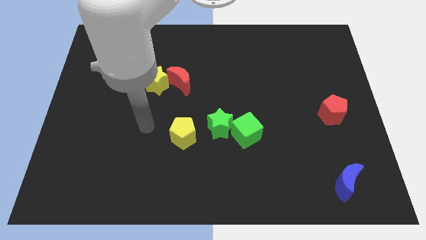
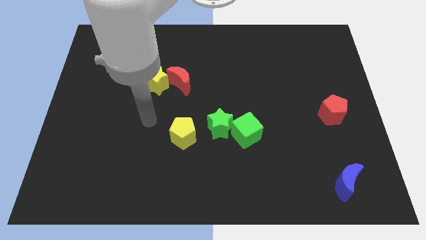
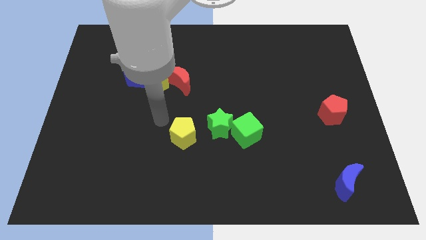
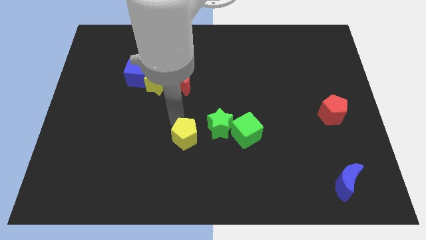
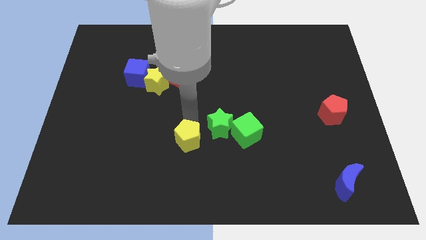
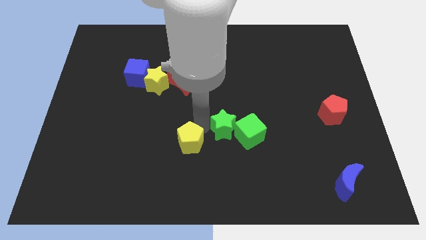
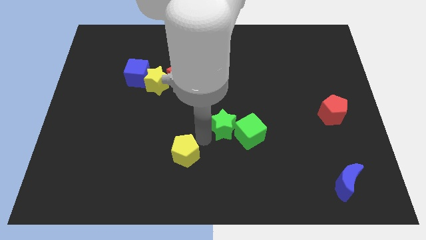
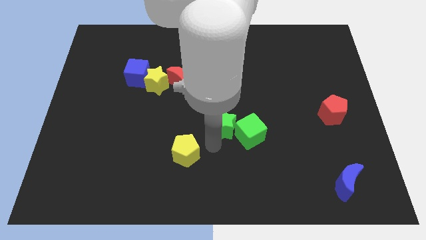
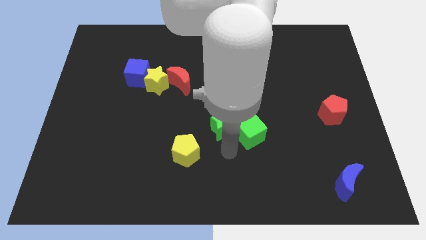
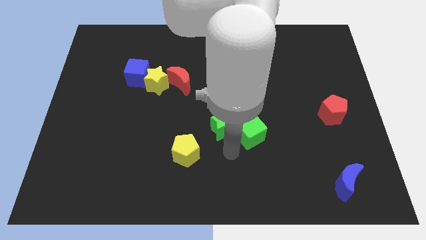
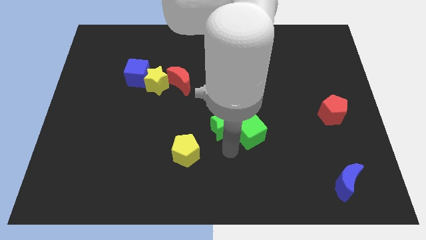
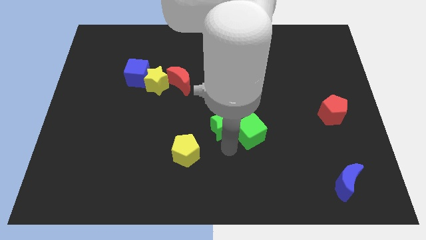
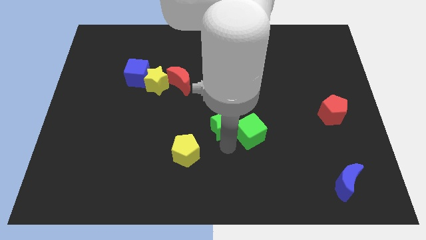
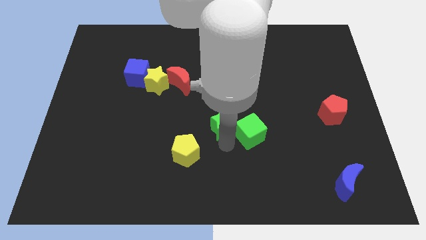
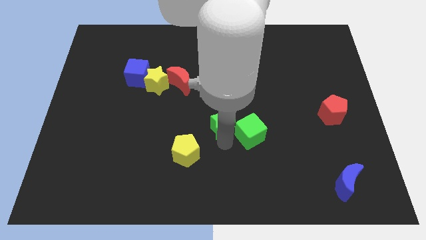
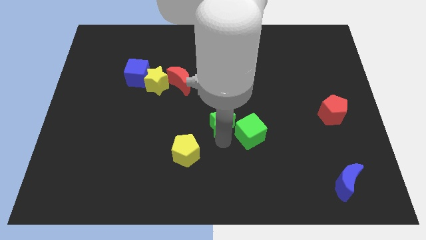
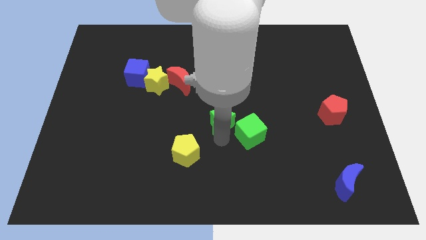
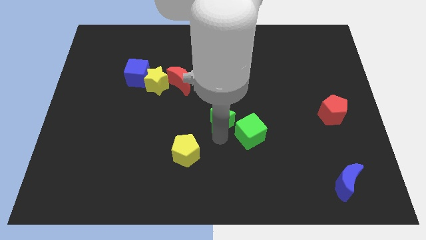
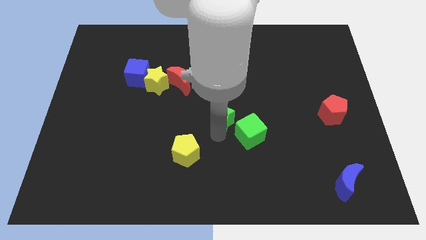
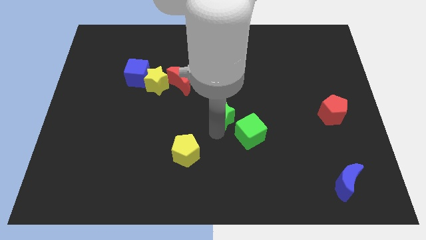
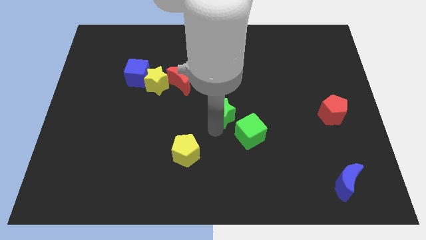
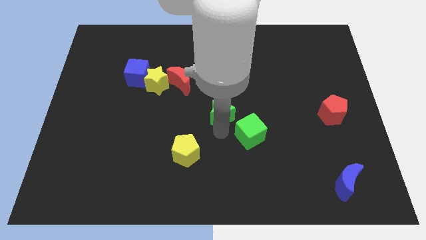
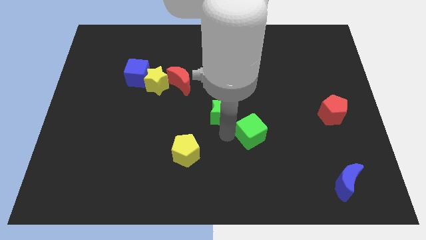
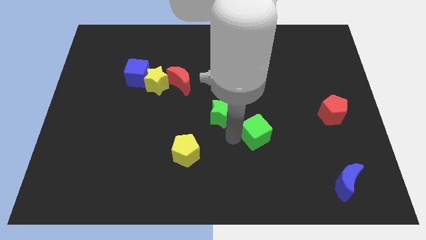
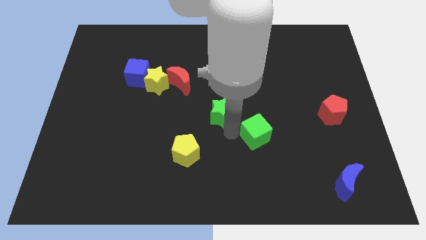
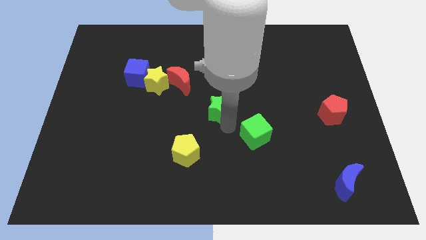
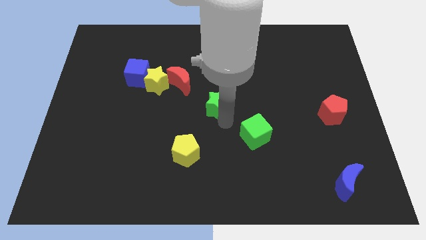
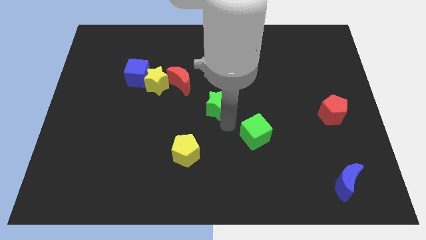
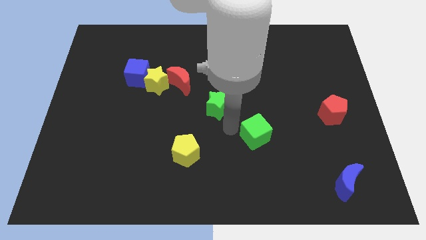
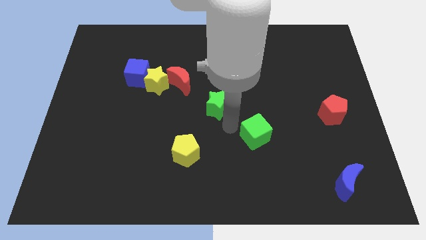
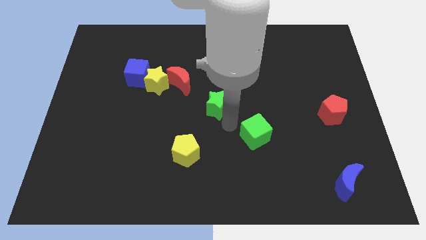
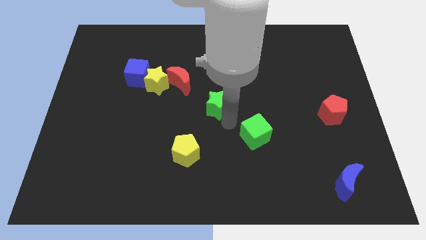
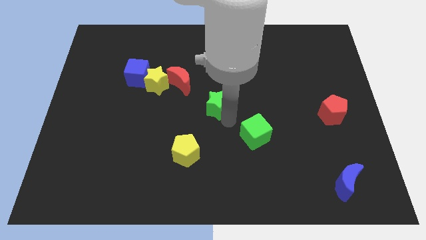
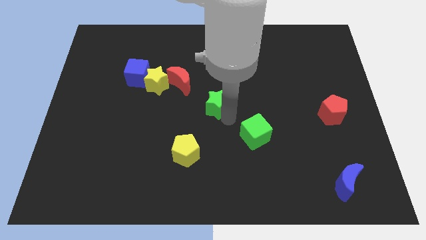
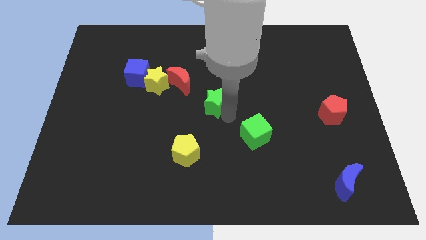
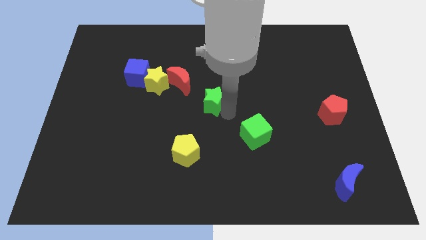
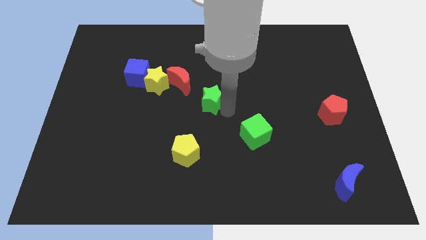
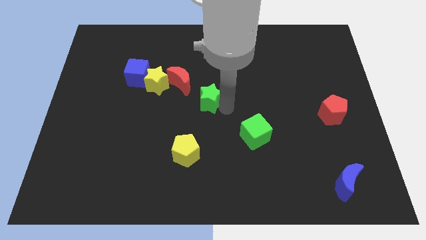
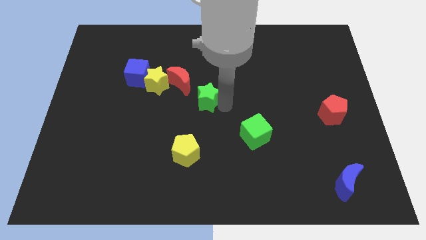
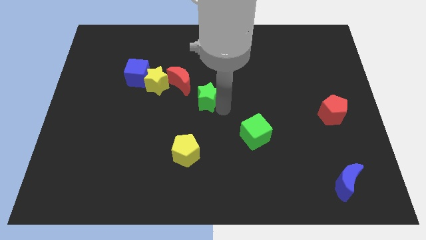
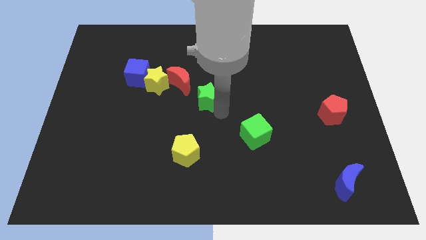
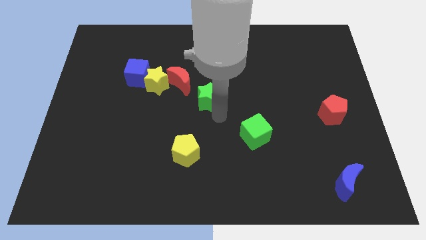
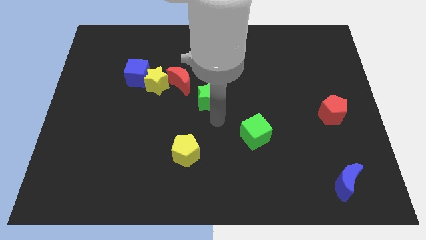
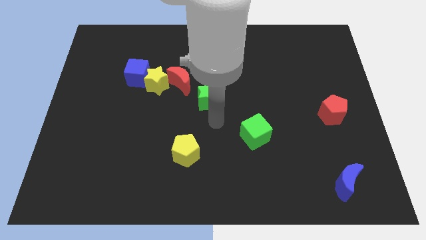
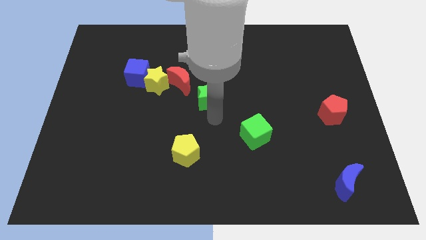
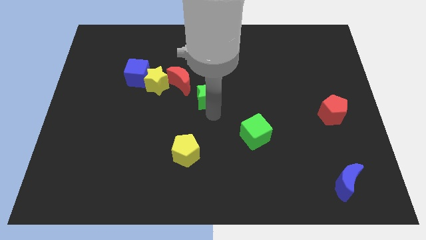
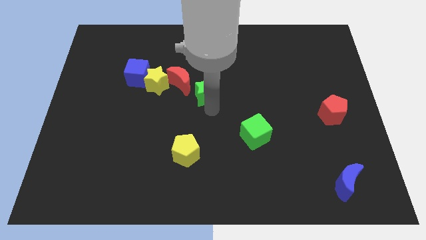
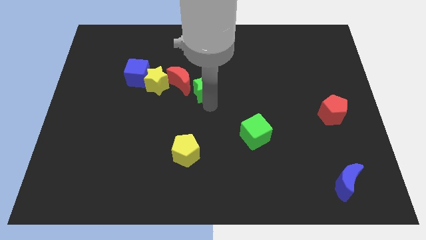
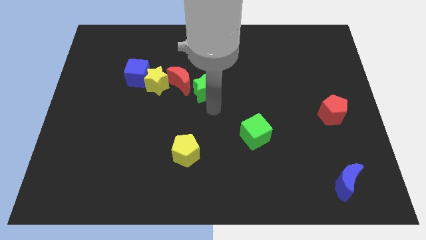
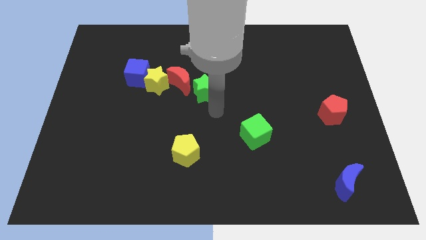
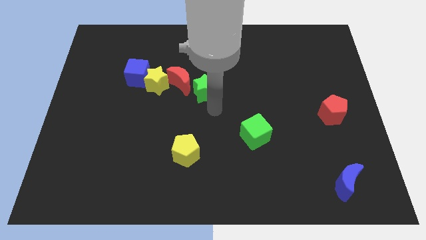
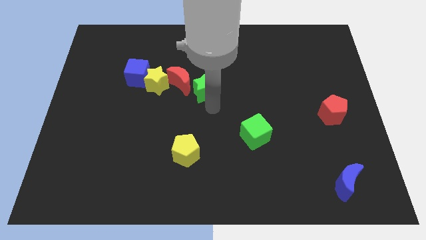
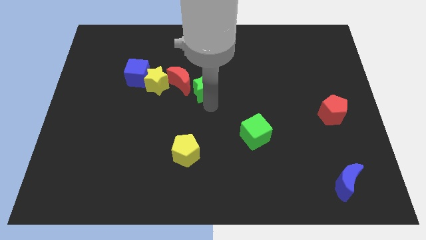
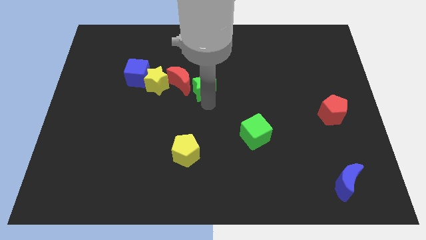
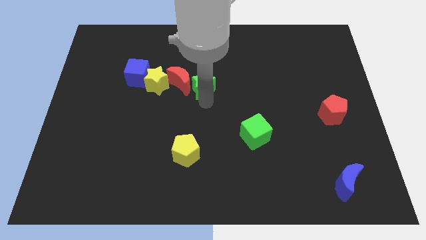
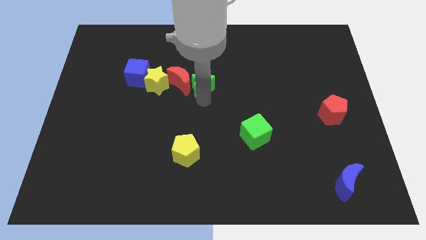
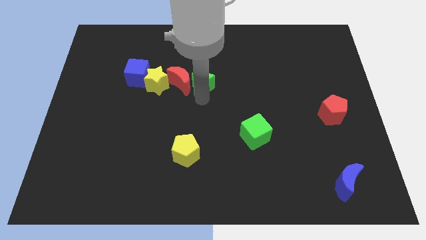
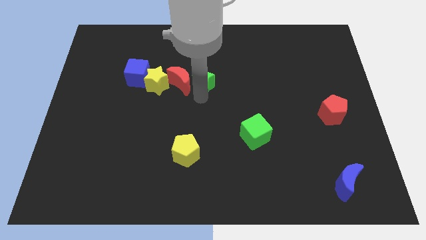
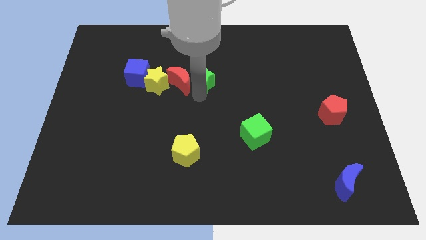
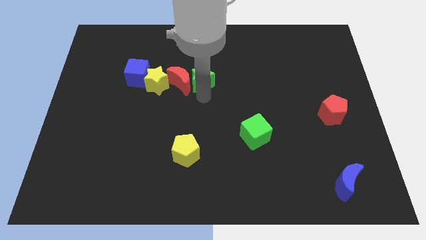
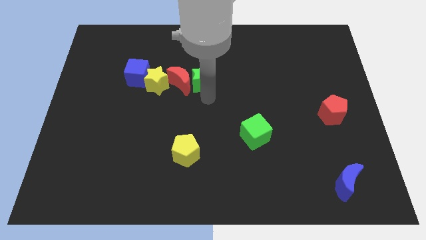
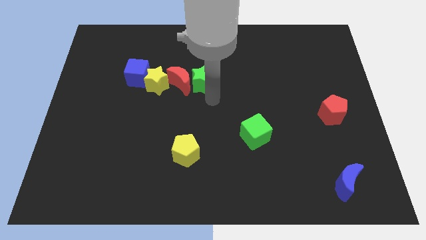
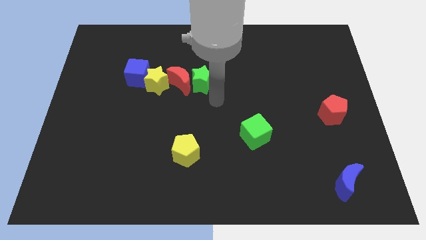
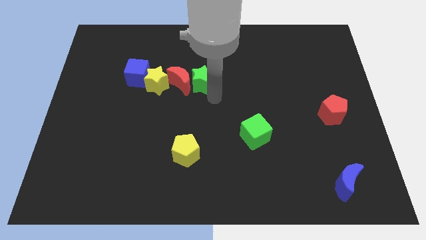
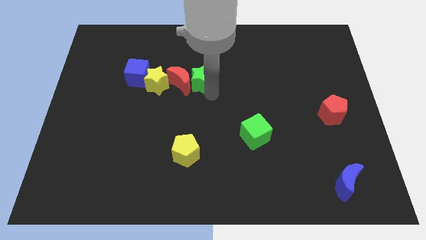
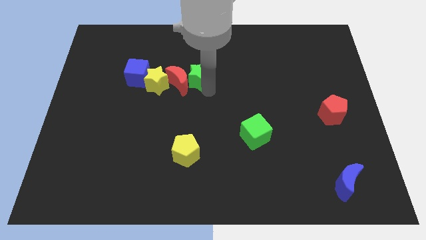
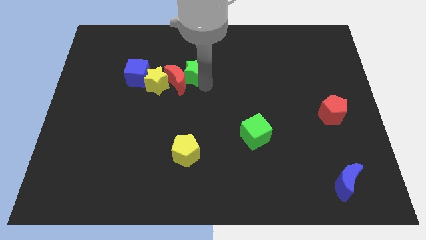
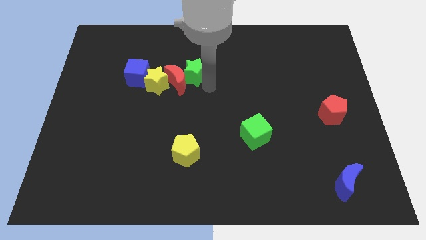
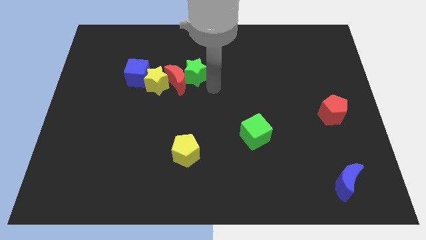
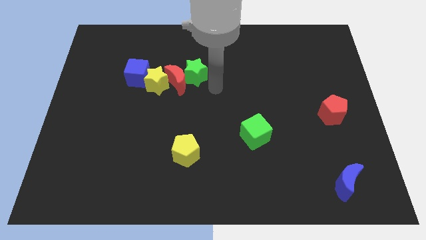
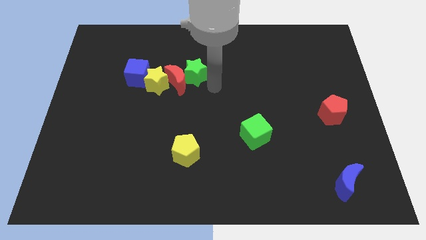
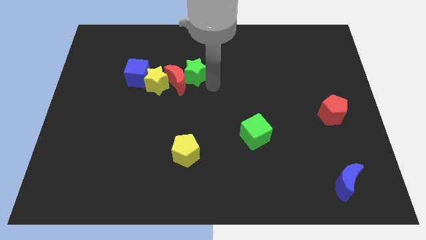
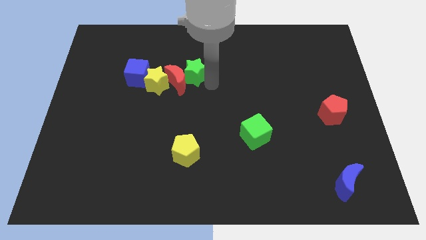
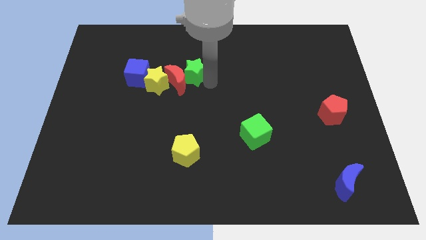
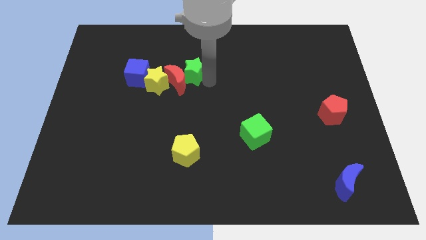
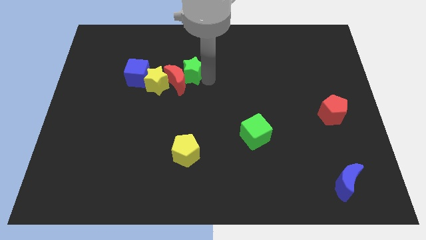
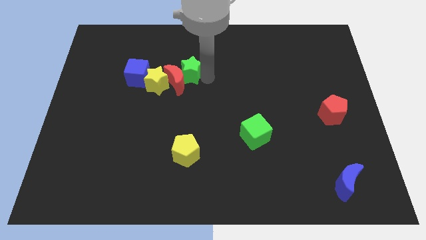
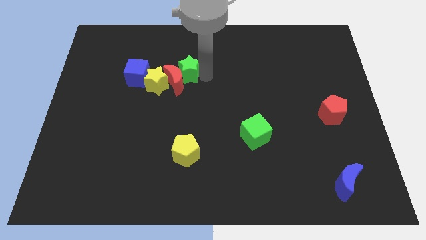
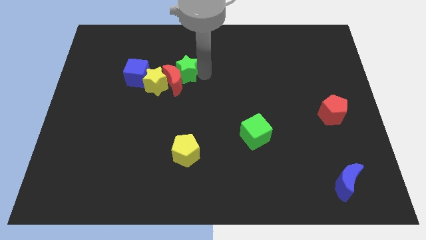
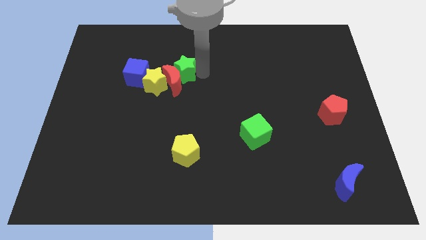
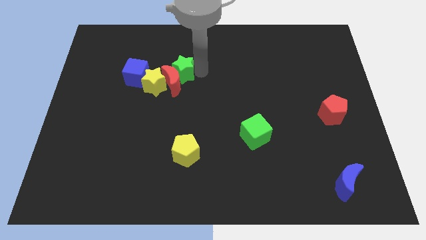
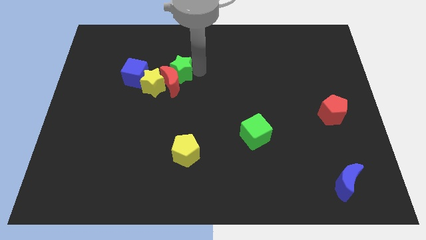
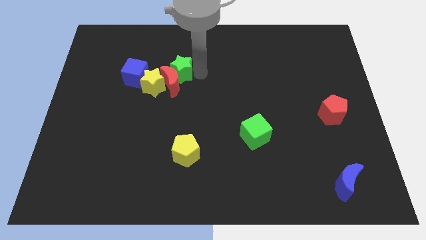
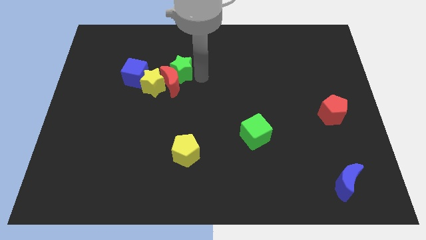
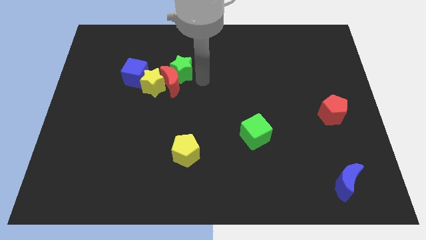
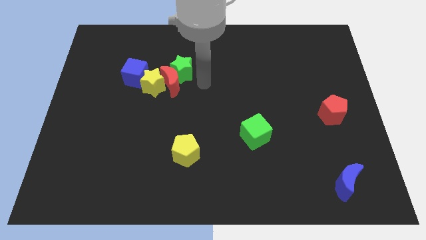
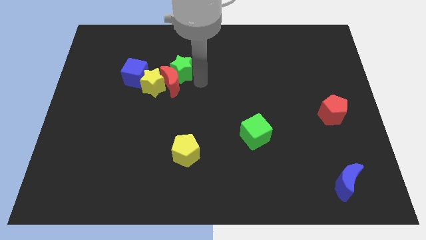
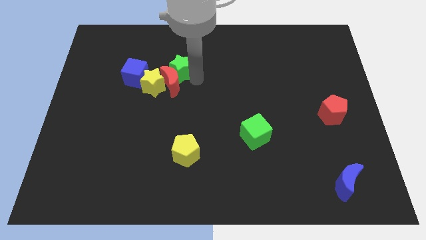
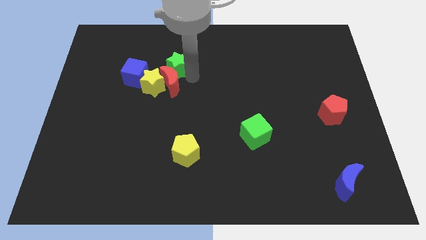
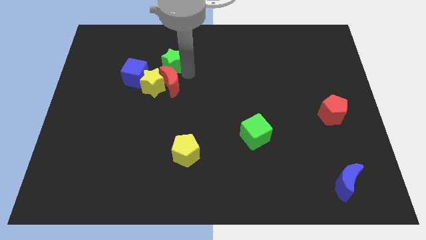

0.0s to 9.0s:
move the green star upwards and then to the left
